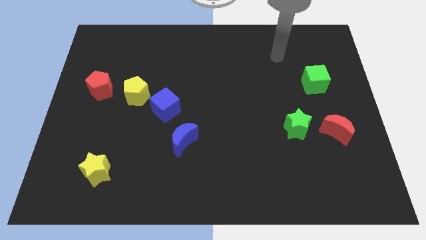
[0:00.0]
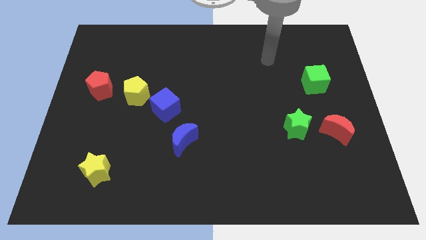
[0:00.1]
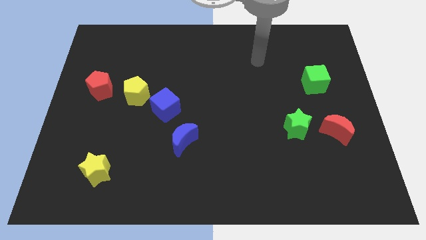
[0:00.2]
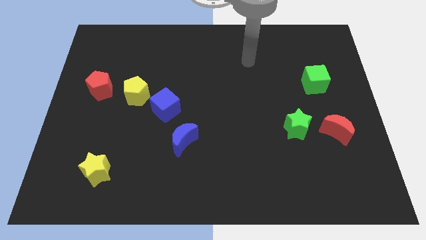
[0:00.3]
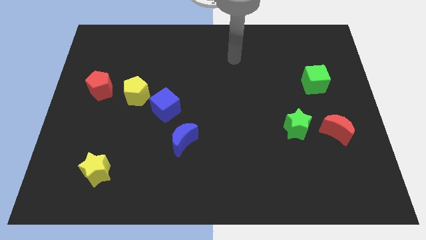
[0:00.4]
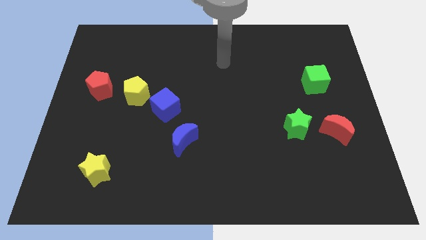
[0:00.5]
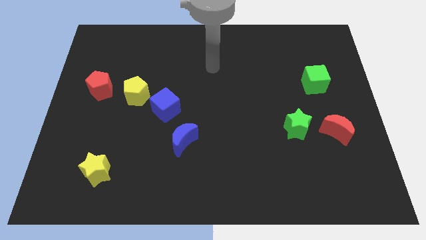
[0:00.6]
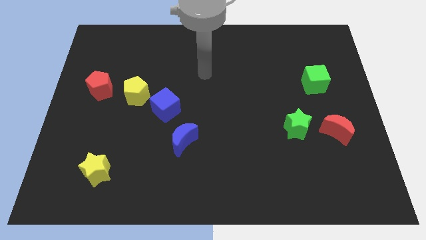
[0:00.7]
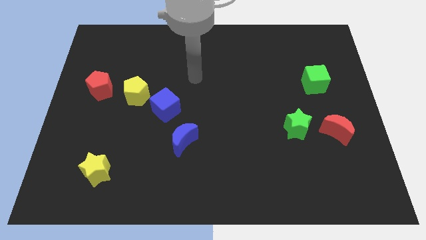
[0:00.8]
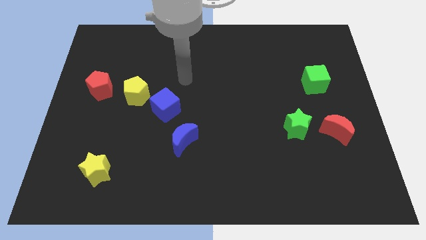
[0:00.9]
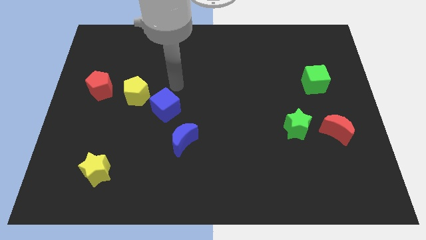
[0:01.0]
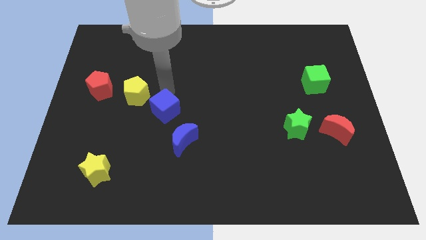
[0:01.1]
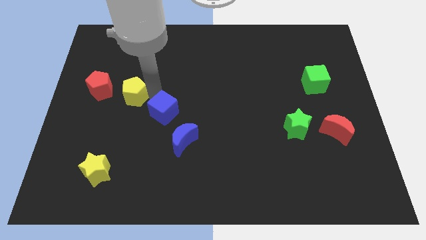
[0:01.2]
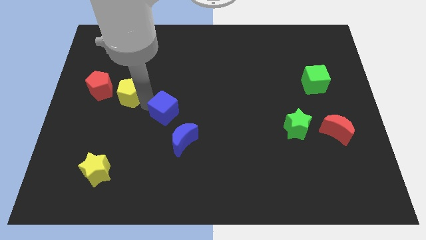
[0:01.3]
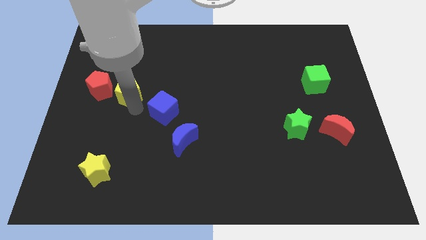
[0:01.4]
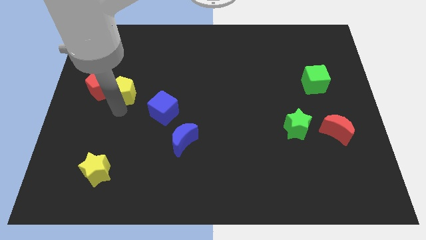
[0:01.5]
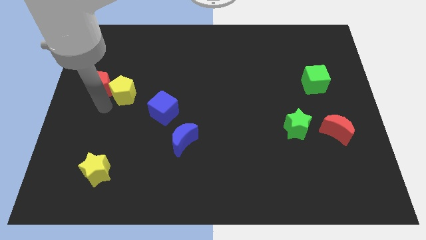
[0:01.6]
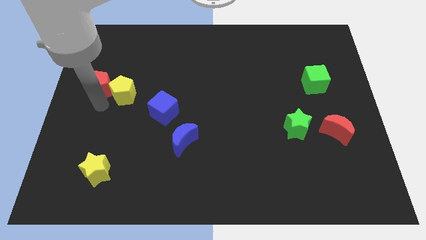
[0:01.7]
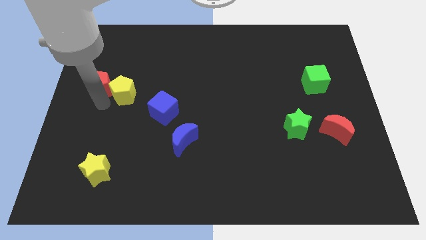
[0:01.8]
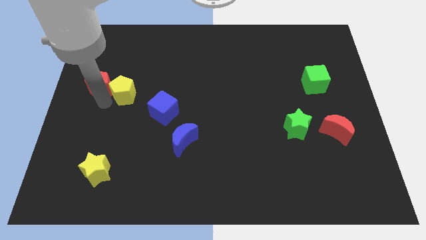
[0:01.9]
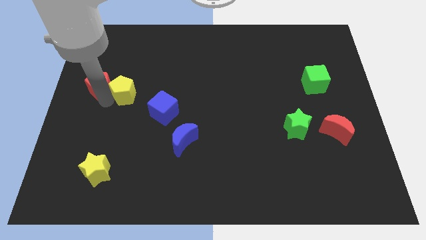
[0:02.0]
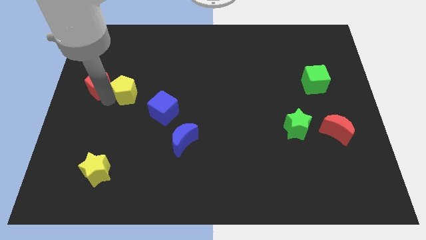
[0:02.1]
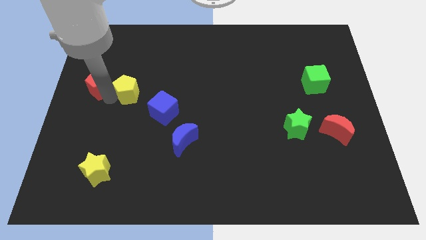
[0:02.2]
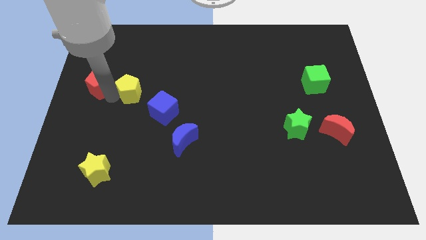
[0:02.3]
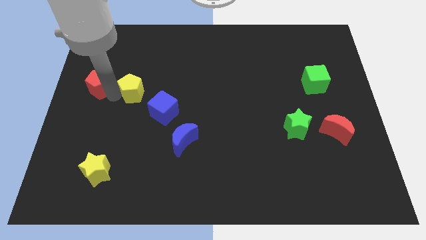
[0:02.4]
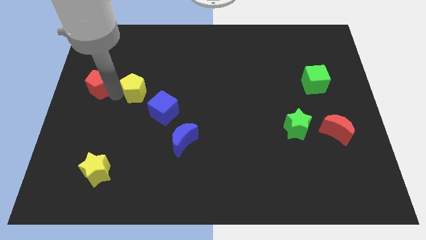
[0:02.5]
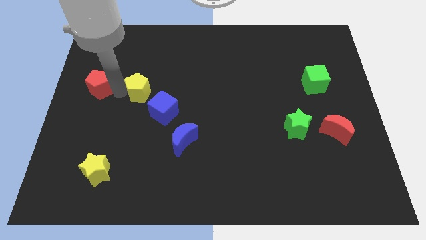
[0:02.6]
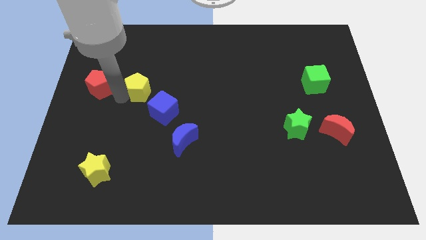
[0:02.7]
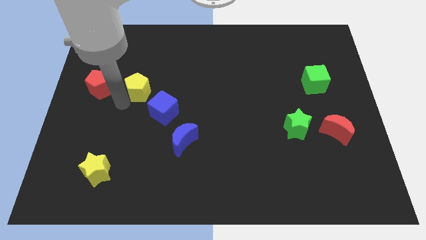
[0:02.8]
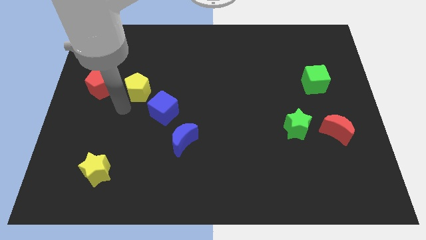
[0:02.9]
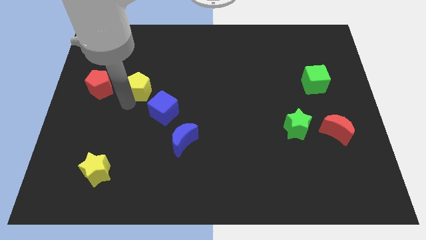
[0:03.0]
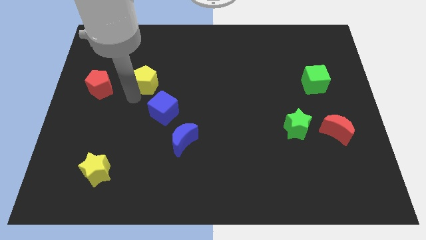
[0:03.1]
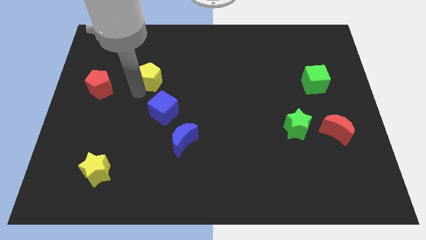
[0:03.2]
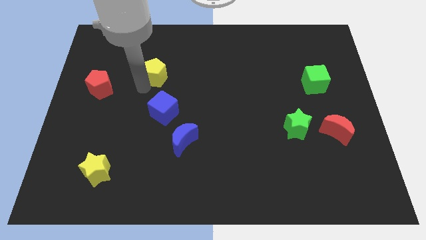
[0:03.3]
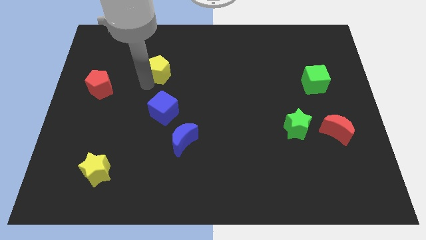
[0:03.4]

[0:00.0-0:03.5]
separate the yellow pentagon from the blue cube and red pentagon

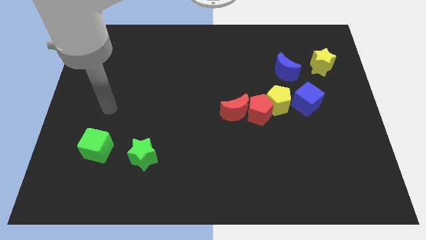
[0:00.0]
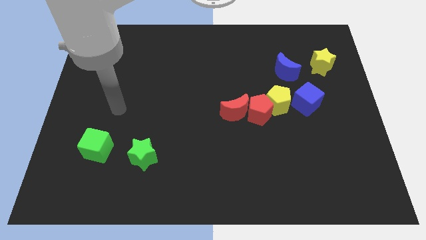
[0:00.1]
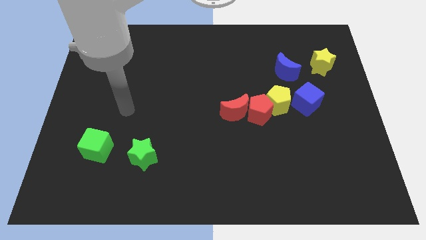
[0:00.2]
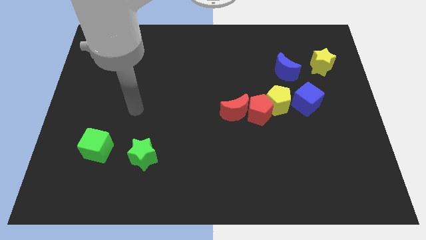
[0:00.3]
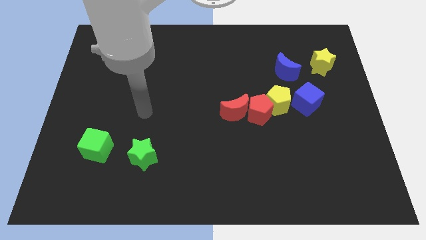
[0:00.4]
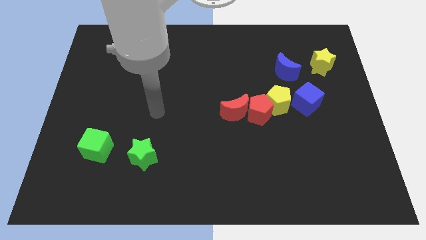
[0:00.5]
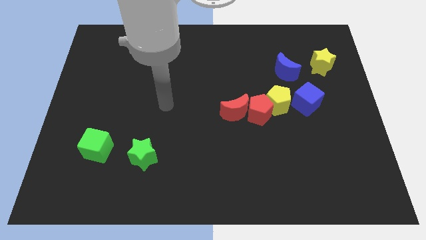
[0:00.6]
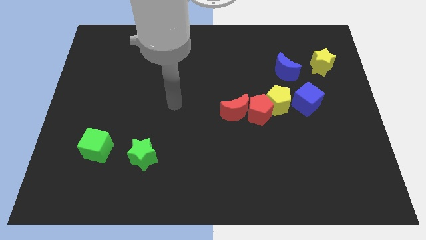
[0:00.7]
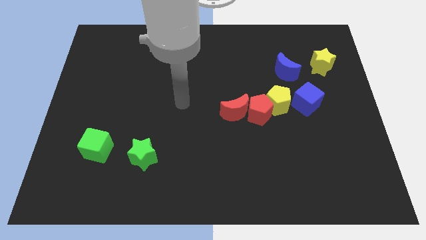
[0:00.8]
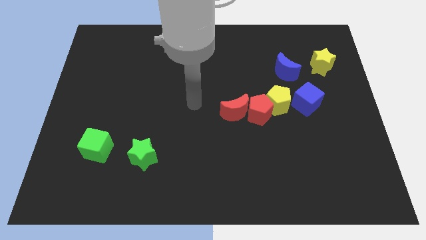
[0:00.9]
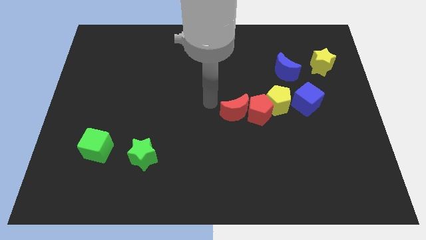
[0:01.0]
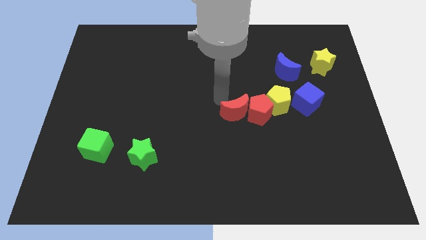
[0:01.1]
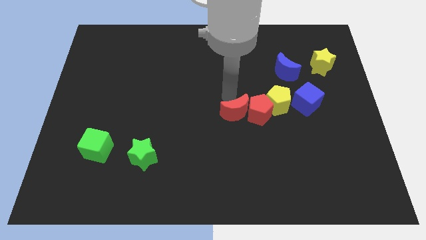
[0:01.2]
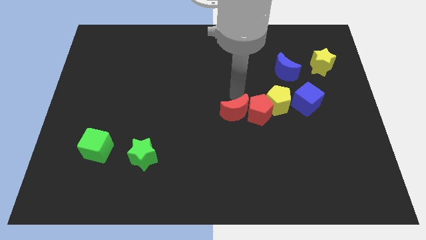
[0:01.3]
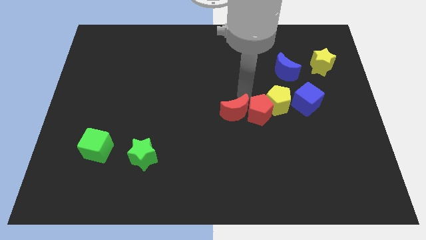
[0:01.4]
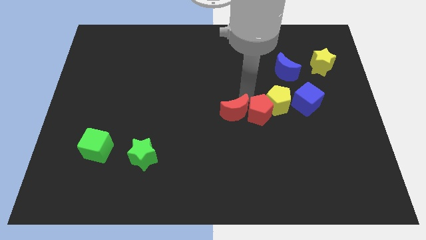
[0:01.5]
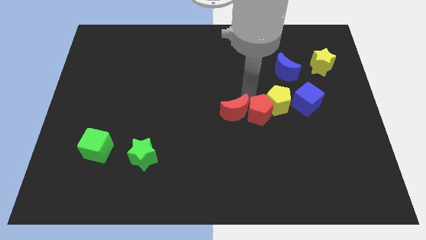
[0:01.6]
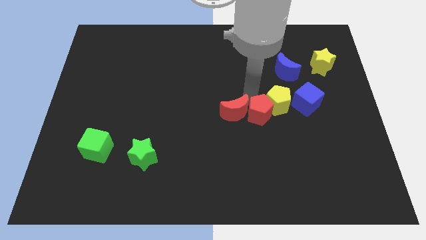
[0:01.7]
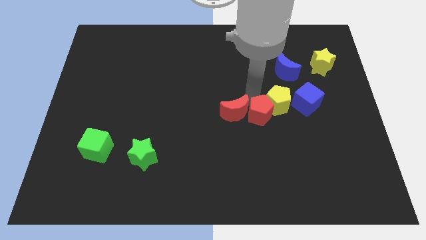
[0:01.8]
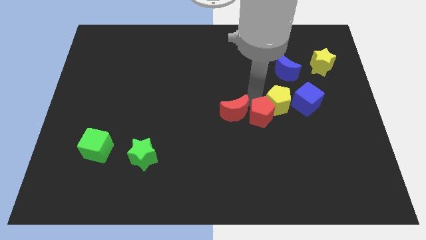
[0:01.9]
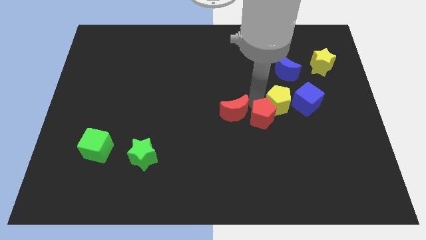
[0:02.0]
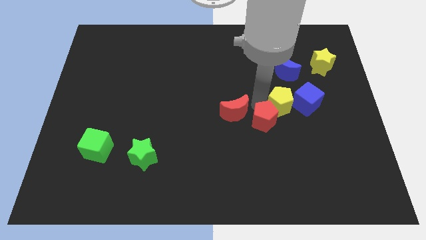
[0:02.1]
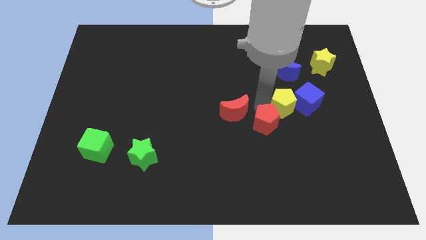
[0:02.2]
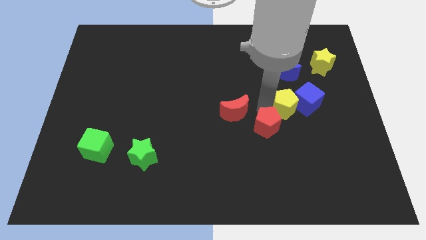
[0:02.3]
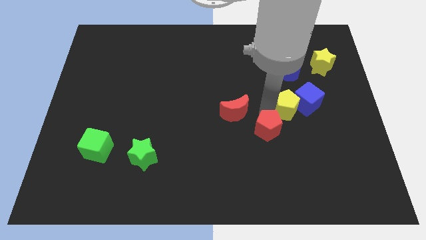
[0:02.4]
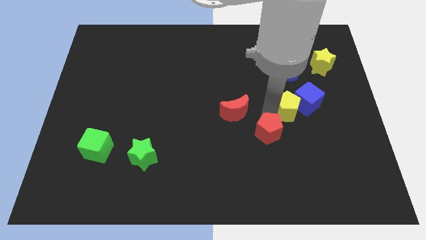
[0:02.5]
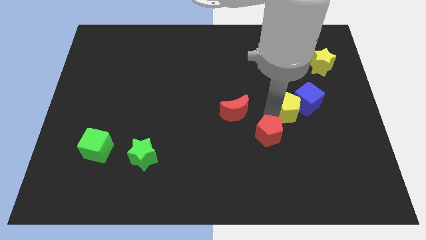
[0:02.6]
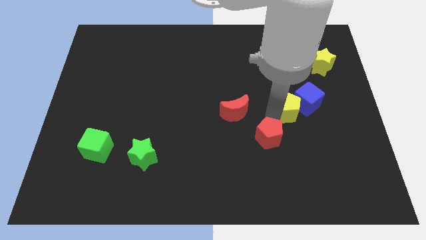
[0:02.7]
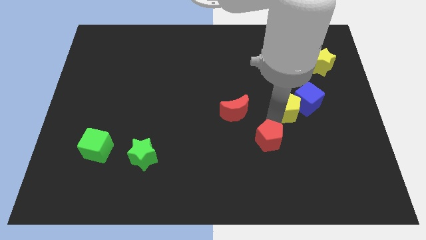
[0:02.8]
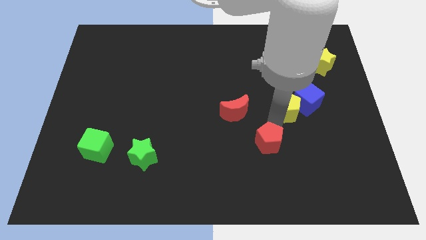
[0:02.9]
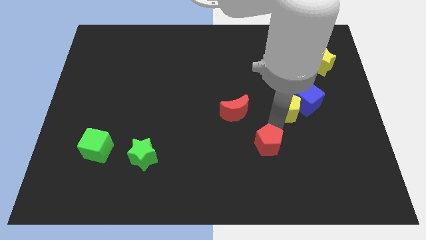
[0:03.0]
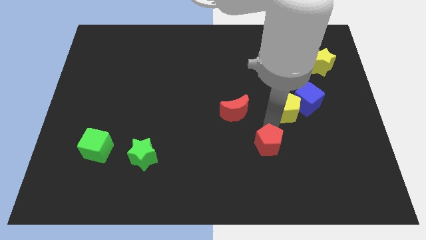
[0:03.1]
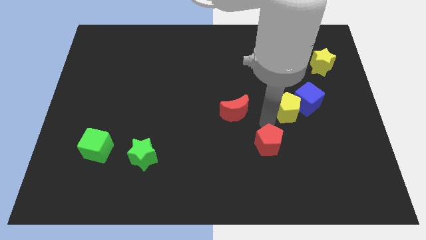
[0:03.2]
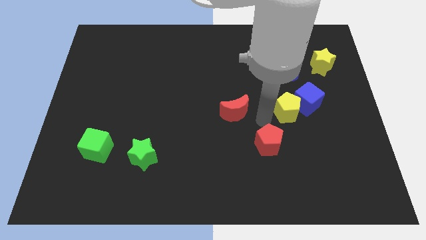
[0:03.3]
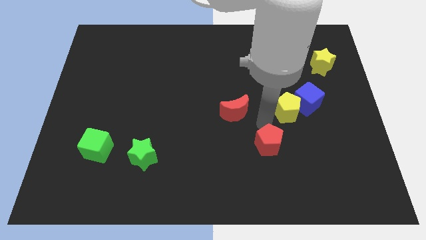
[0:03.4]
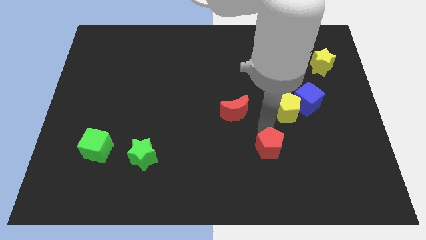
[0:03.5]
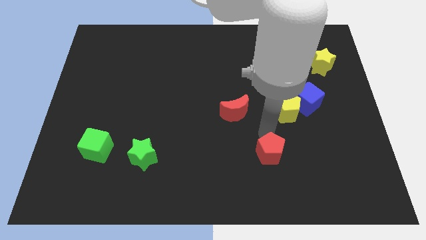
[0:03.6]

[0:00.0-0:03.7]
pull the red pentagon apart from the yellow pentagon and red moon

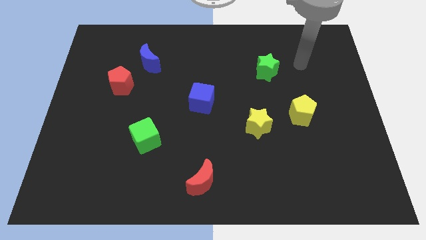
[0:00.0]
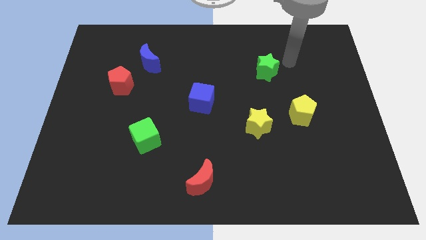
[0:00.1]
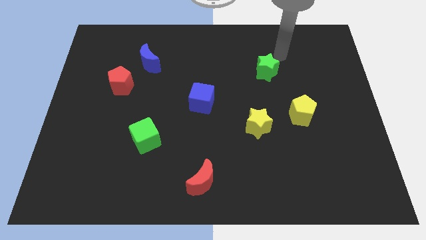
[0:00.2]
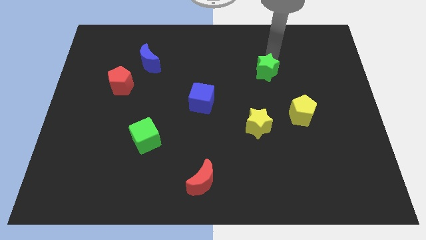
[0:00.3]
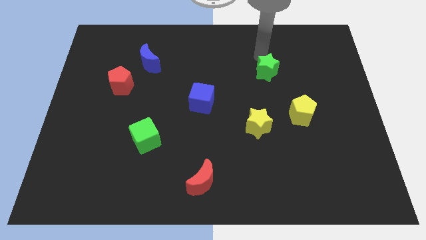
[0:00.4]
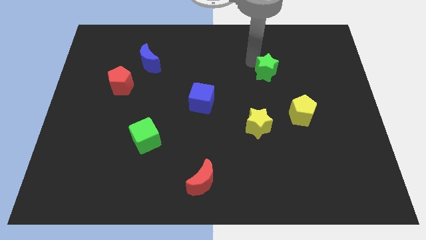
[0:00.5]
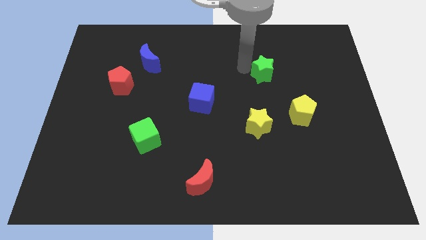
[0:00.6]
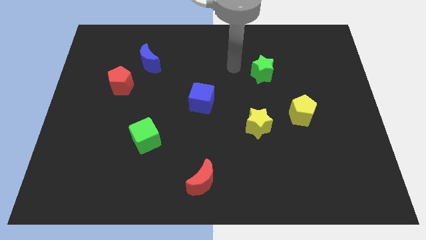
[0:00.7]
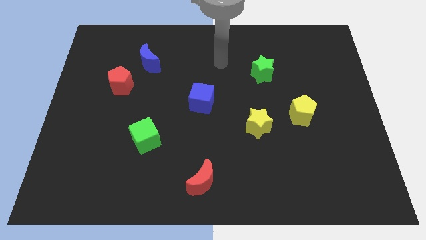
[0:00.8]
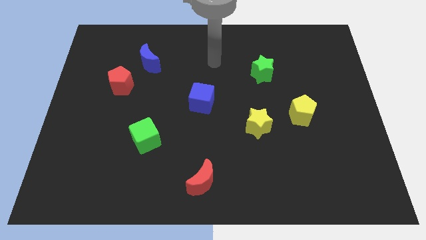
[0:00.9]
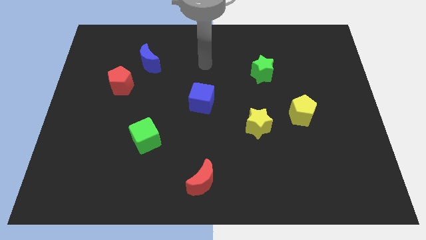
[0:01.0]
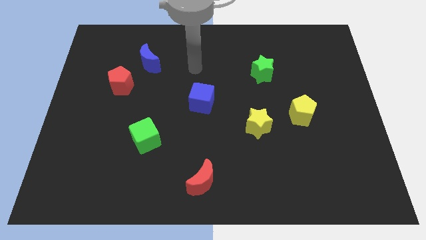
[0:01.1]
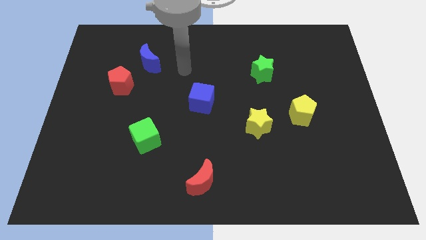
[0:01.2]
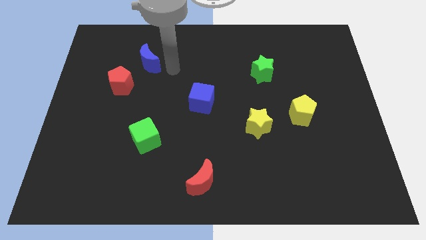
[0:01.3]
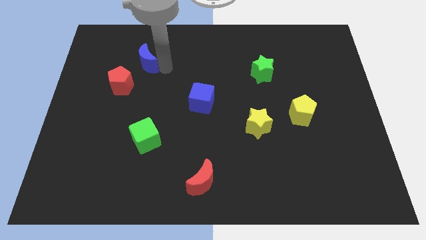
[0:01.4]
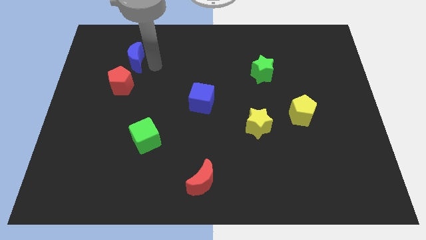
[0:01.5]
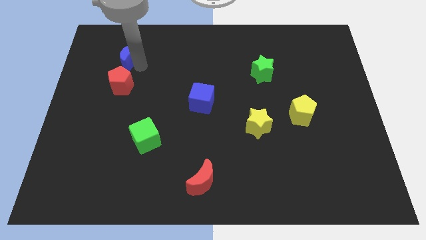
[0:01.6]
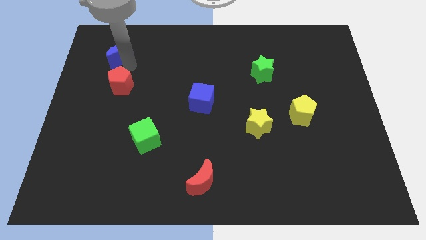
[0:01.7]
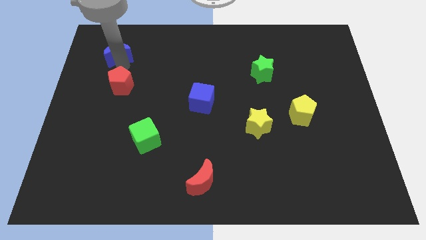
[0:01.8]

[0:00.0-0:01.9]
separate the red pentagon from the blue moon

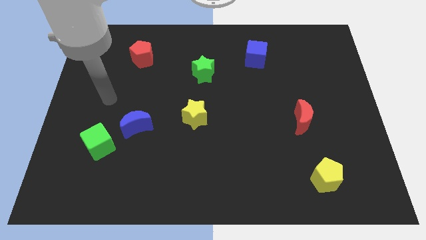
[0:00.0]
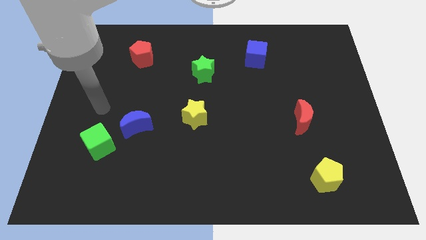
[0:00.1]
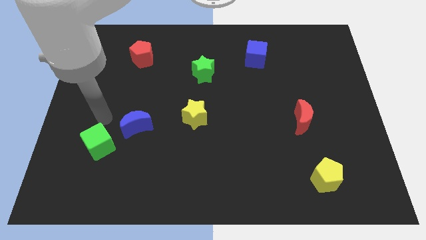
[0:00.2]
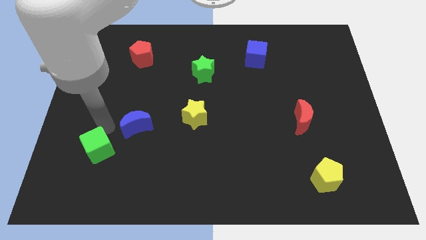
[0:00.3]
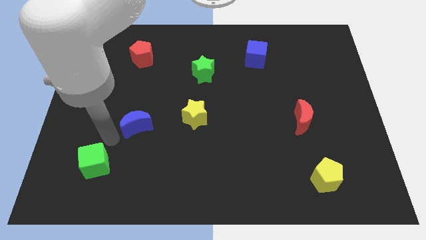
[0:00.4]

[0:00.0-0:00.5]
separate the blue moon from the green cube
